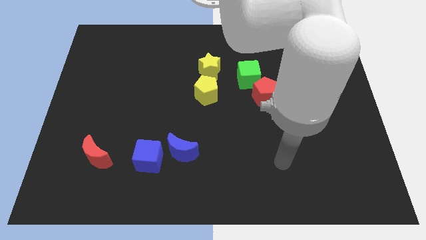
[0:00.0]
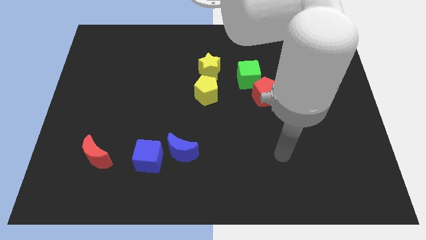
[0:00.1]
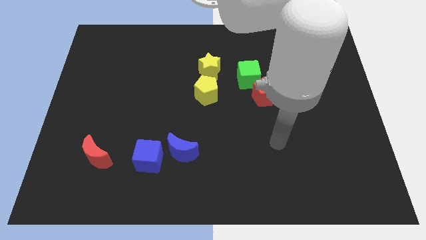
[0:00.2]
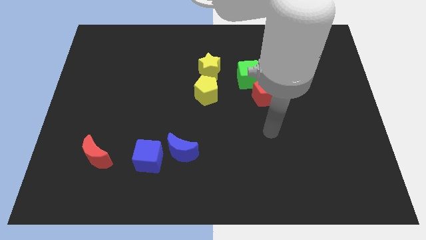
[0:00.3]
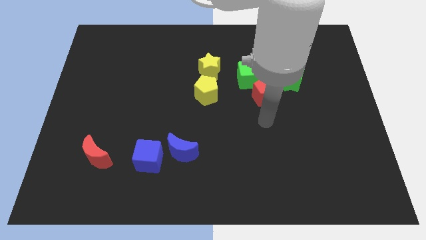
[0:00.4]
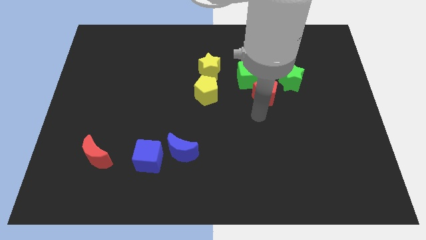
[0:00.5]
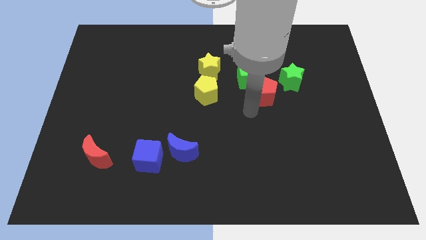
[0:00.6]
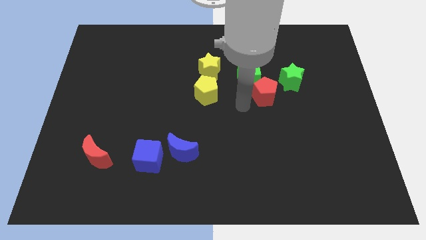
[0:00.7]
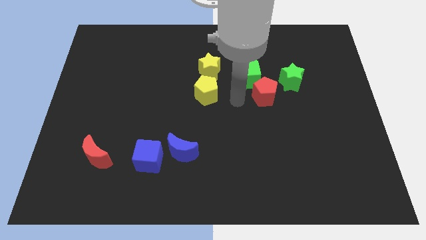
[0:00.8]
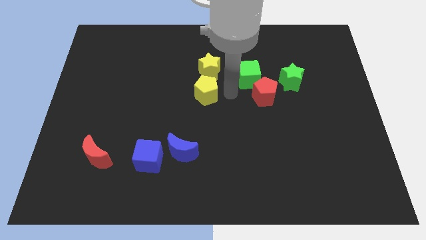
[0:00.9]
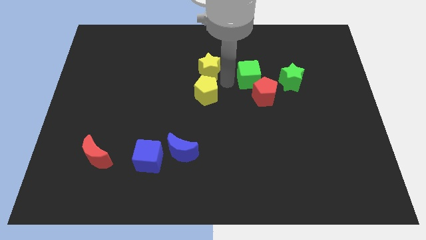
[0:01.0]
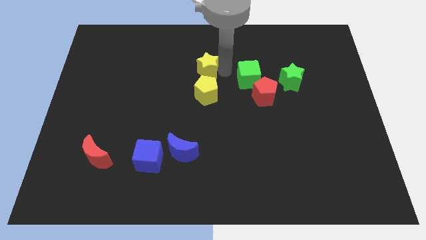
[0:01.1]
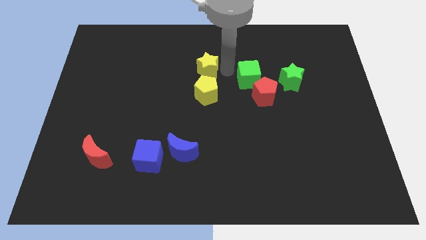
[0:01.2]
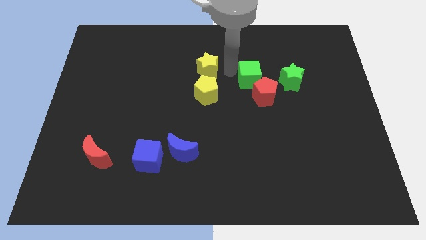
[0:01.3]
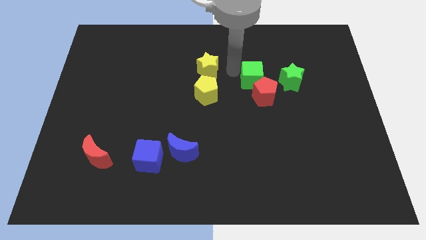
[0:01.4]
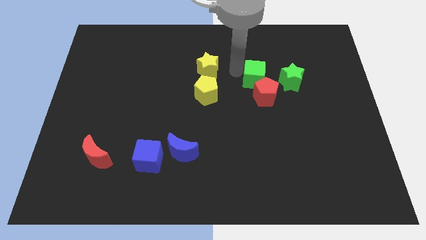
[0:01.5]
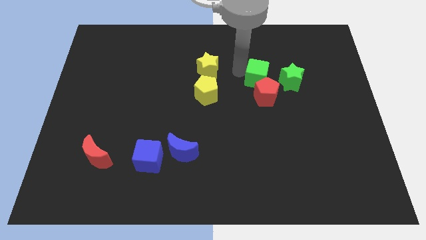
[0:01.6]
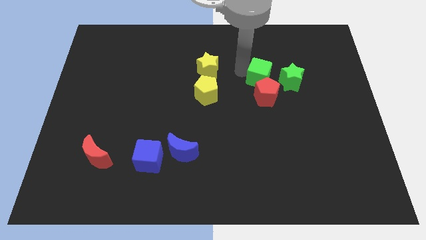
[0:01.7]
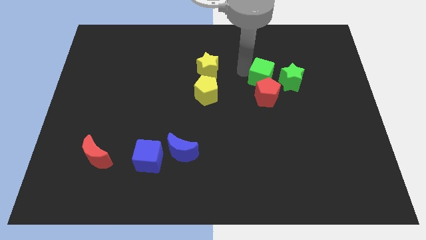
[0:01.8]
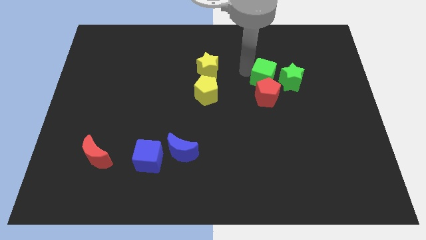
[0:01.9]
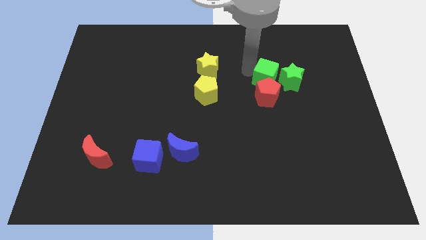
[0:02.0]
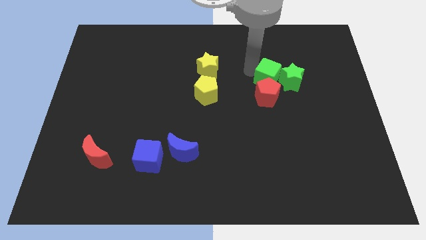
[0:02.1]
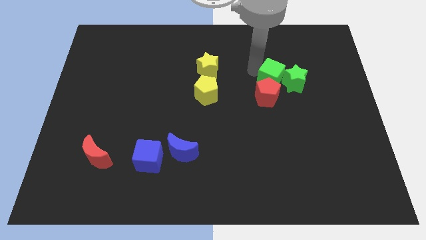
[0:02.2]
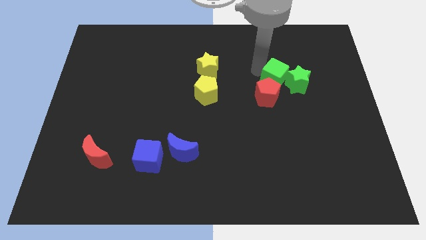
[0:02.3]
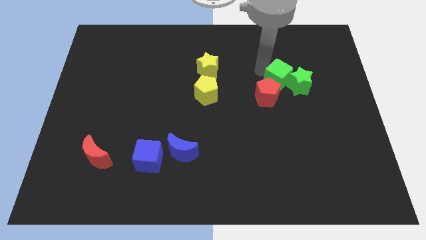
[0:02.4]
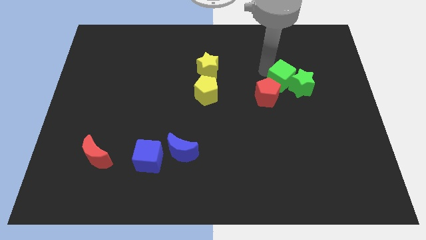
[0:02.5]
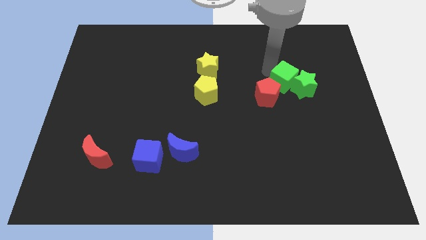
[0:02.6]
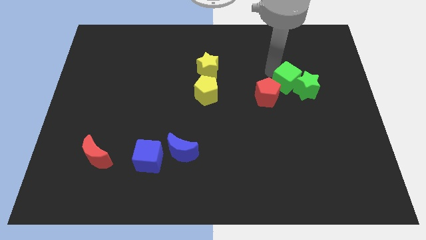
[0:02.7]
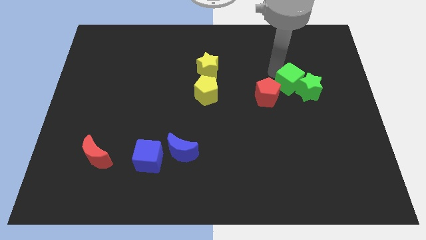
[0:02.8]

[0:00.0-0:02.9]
move the green cube somewhat downwards and right diagonally

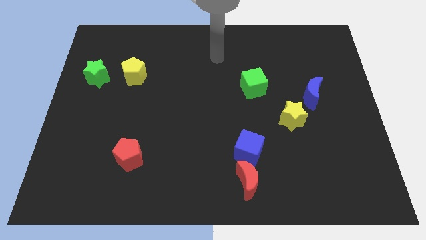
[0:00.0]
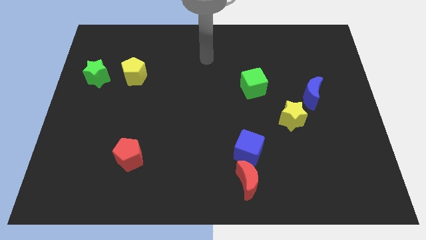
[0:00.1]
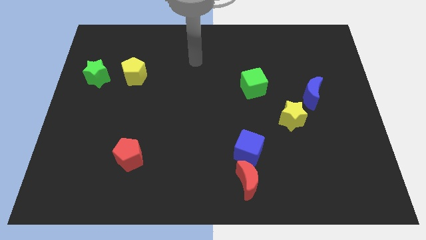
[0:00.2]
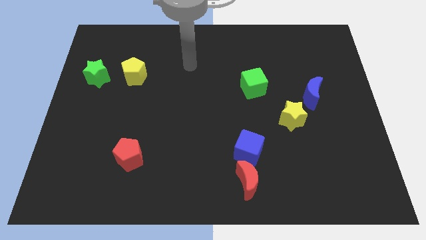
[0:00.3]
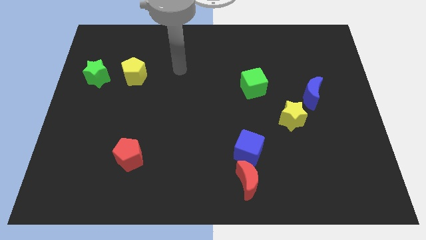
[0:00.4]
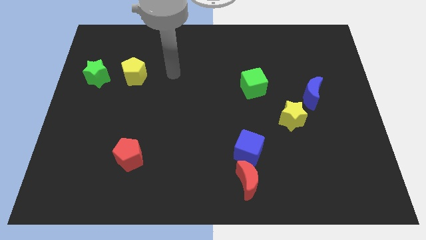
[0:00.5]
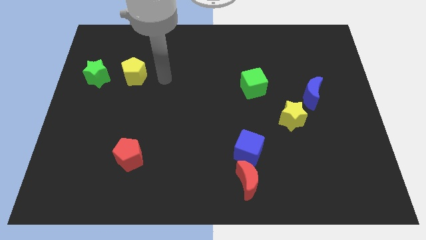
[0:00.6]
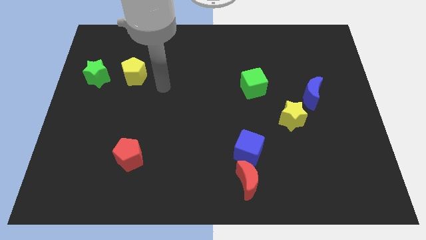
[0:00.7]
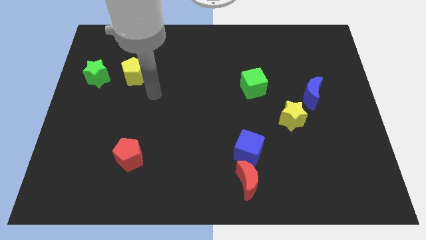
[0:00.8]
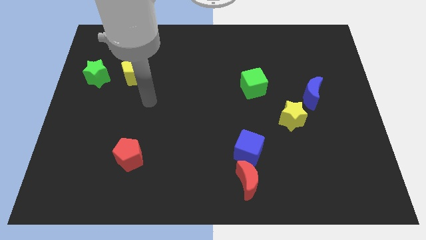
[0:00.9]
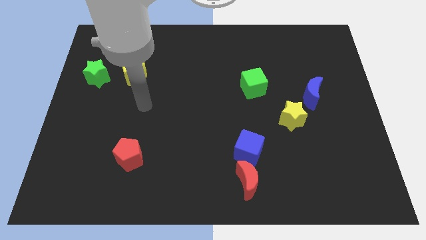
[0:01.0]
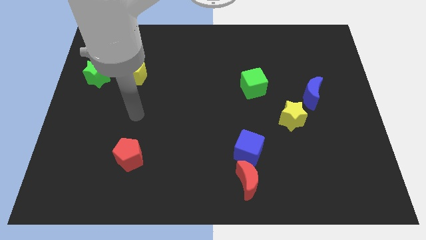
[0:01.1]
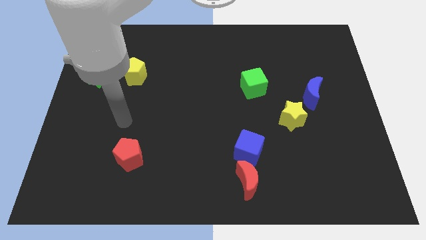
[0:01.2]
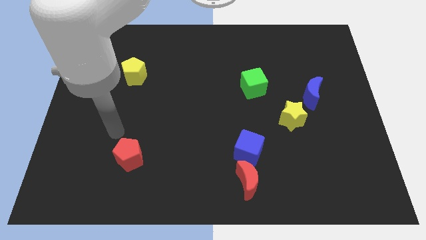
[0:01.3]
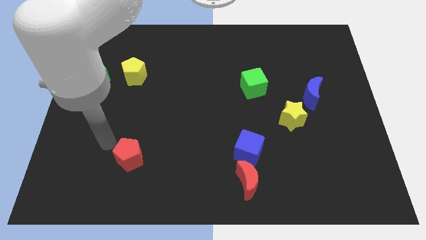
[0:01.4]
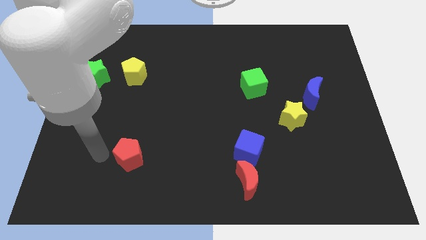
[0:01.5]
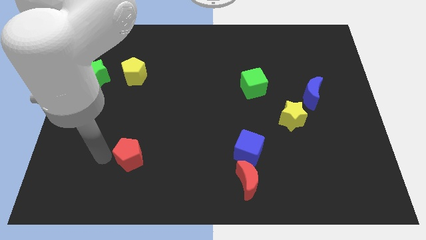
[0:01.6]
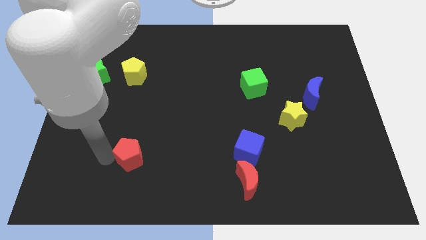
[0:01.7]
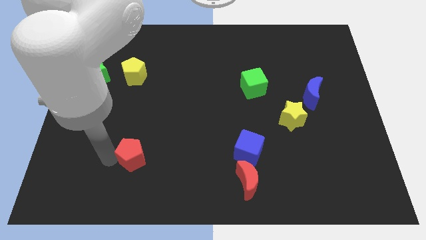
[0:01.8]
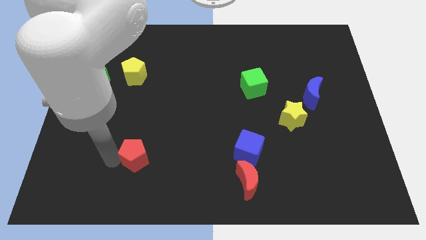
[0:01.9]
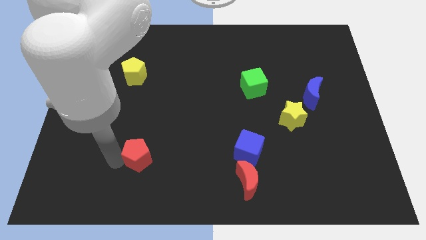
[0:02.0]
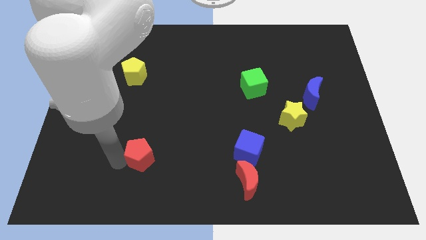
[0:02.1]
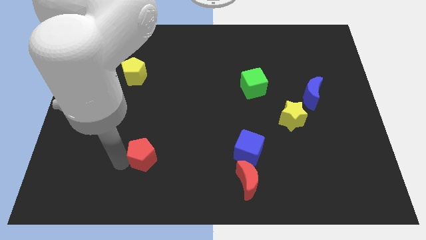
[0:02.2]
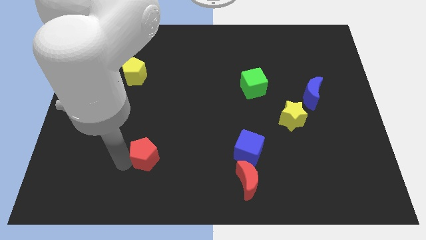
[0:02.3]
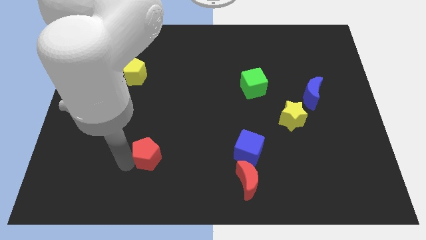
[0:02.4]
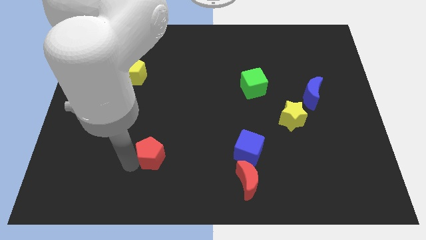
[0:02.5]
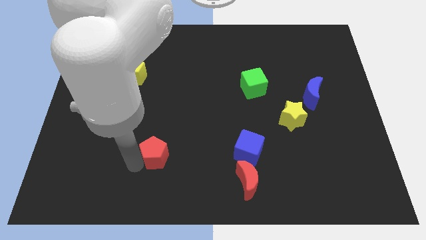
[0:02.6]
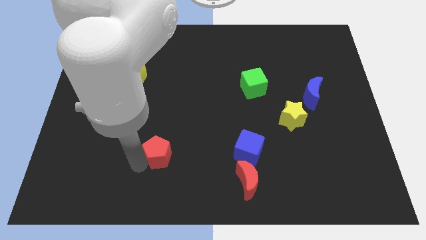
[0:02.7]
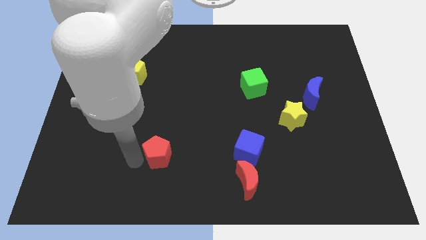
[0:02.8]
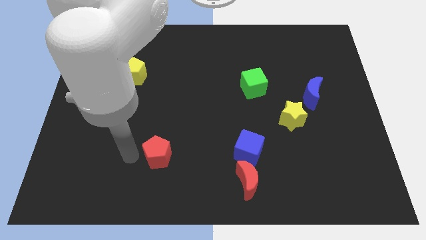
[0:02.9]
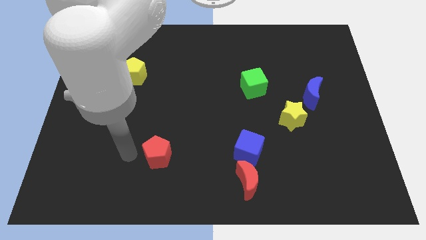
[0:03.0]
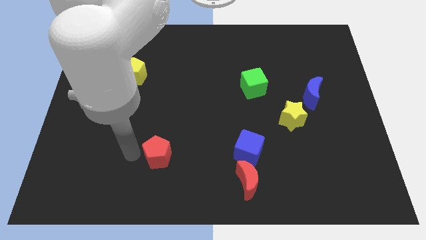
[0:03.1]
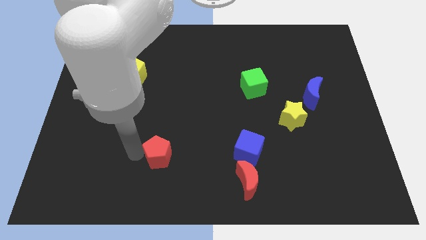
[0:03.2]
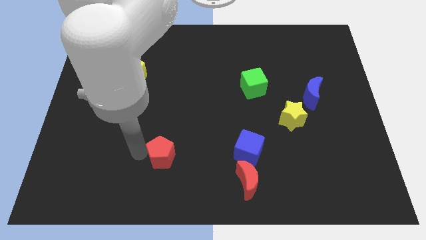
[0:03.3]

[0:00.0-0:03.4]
move the red pentagon to the right a little bit

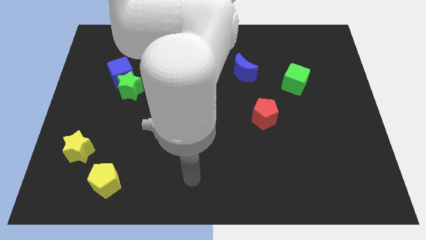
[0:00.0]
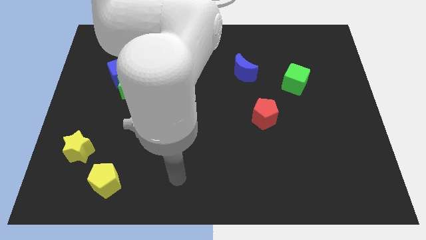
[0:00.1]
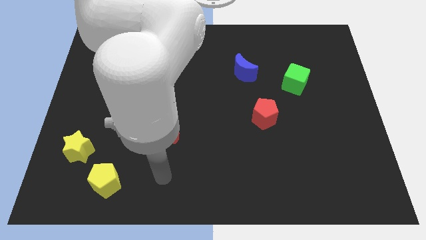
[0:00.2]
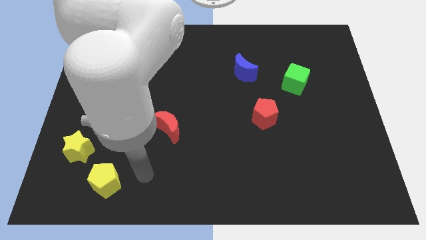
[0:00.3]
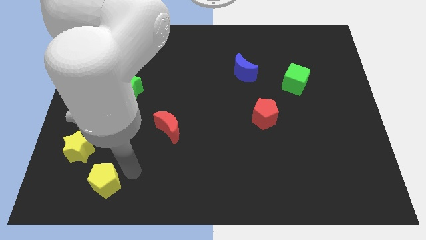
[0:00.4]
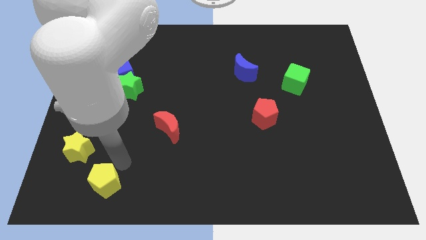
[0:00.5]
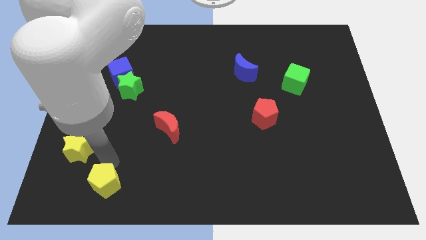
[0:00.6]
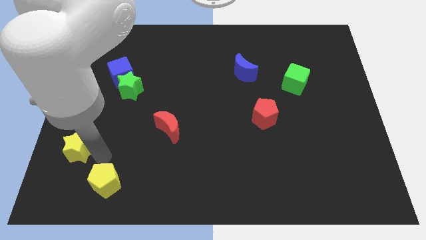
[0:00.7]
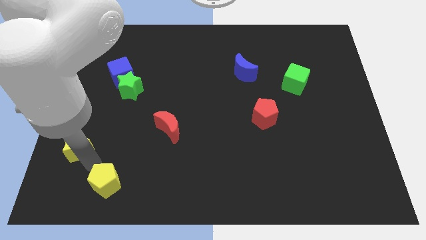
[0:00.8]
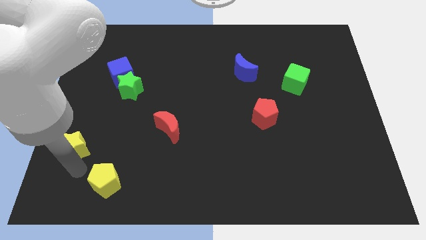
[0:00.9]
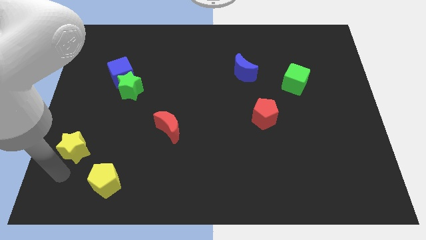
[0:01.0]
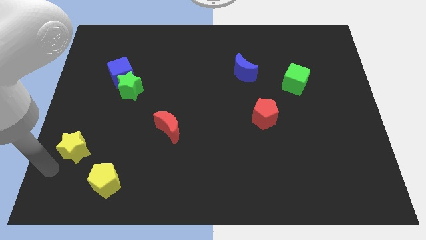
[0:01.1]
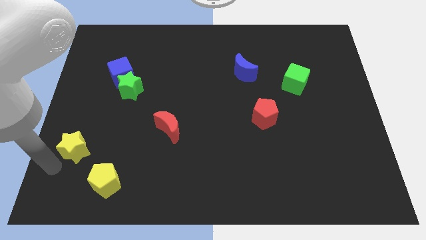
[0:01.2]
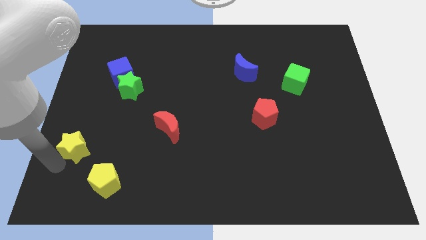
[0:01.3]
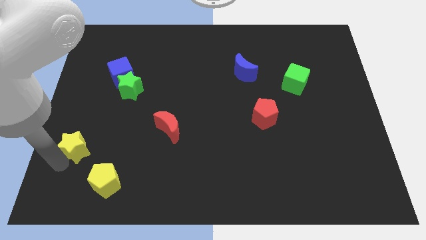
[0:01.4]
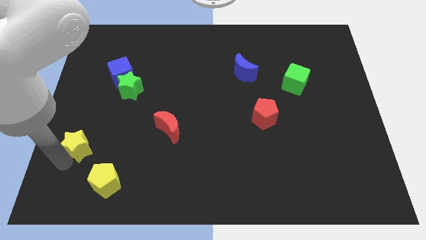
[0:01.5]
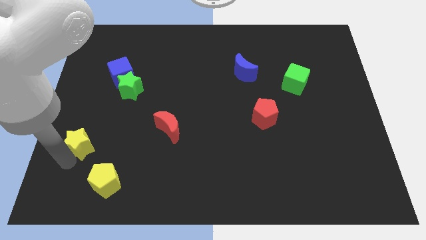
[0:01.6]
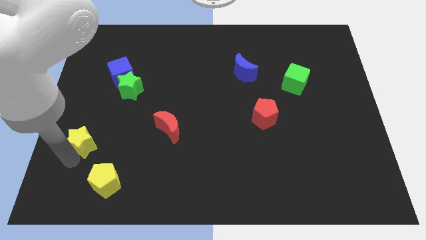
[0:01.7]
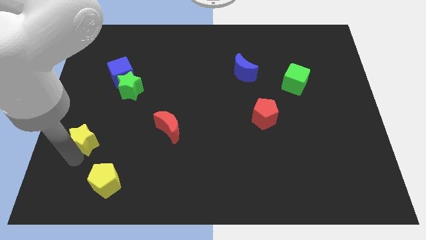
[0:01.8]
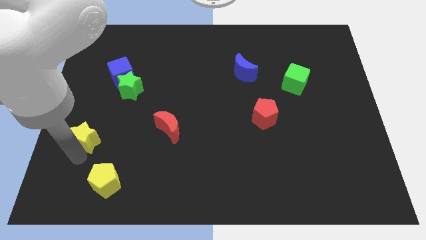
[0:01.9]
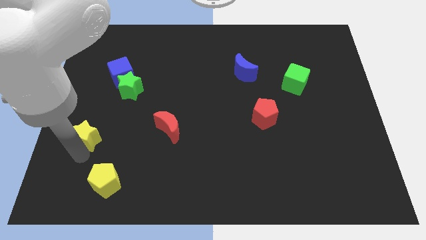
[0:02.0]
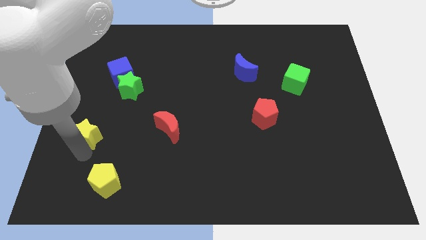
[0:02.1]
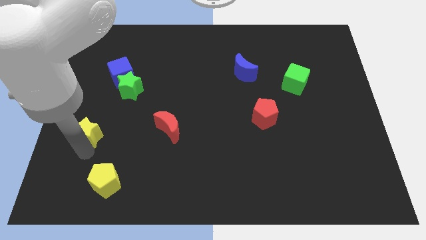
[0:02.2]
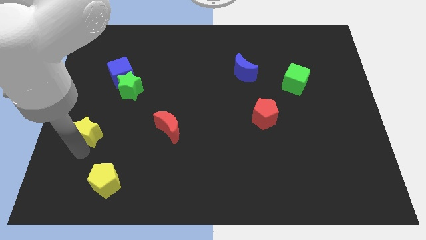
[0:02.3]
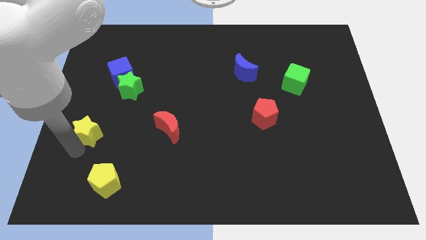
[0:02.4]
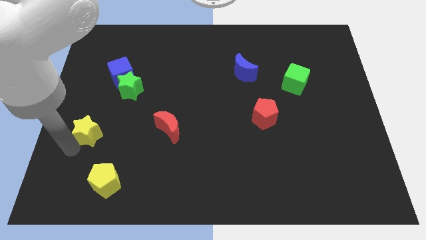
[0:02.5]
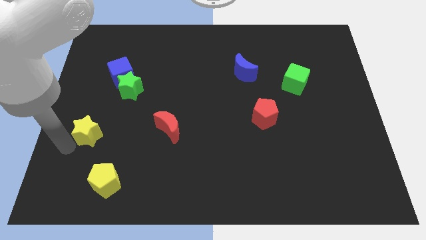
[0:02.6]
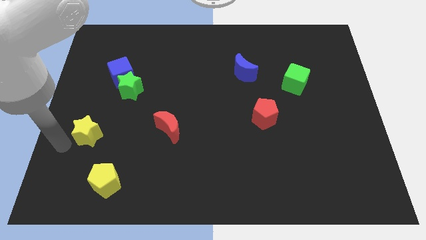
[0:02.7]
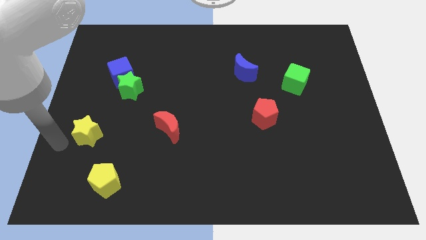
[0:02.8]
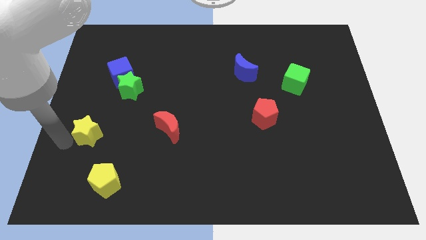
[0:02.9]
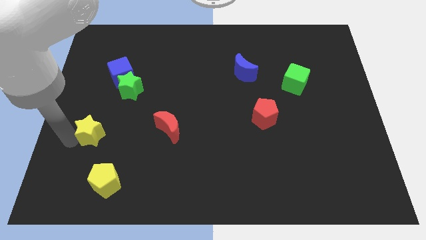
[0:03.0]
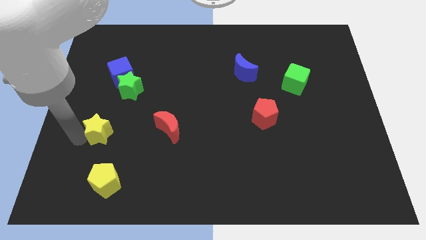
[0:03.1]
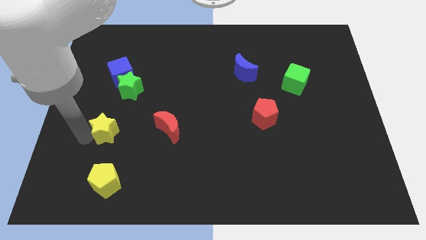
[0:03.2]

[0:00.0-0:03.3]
push the yellow star a bit diagonally up and right
